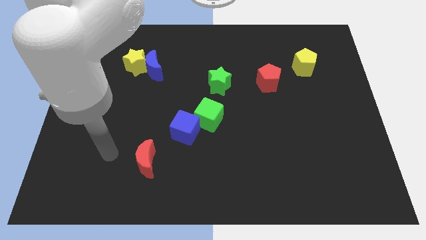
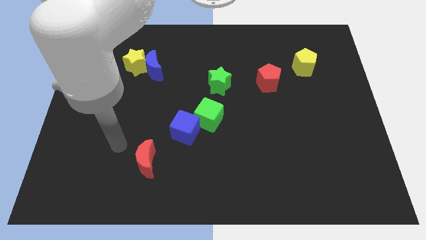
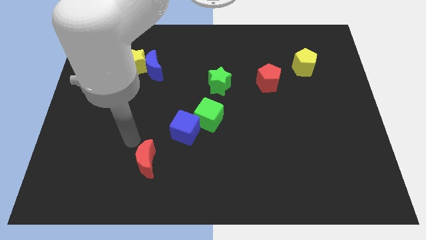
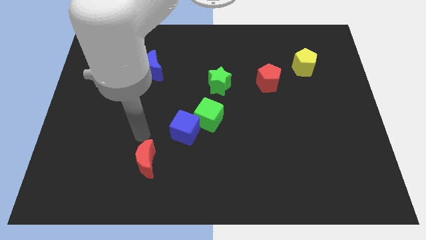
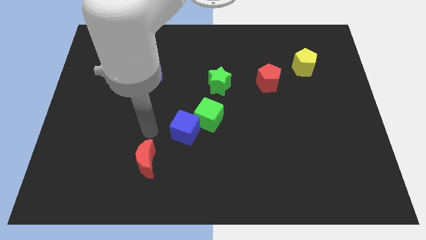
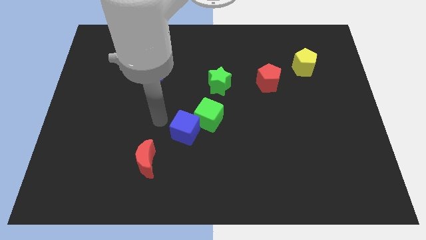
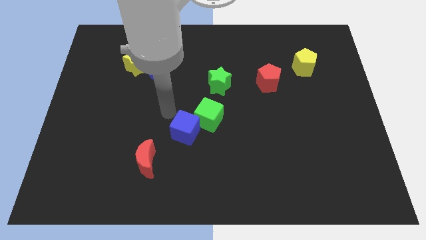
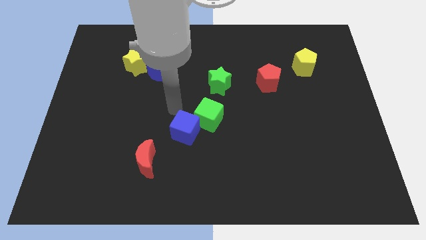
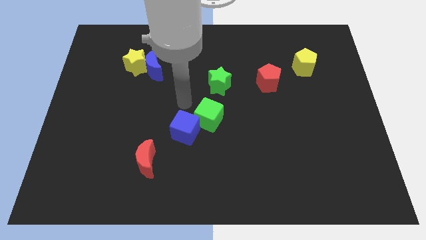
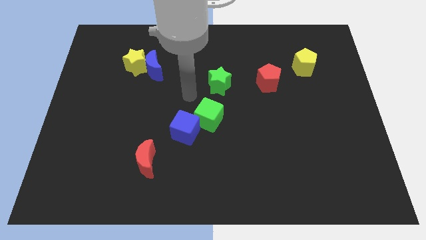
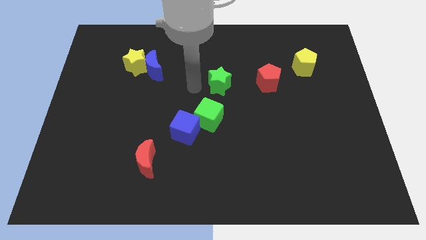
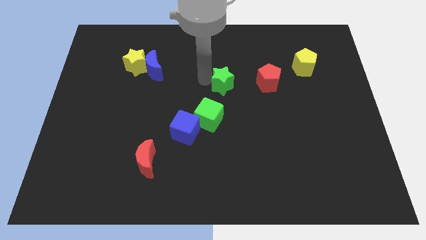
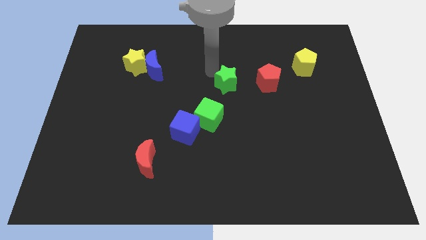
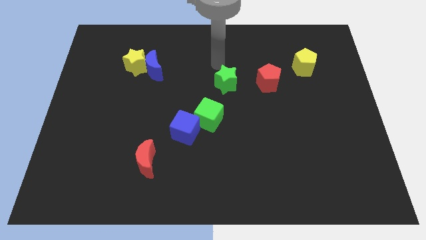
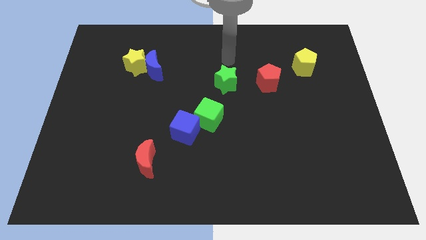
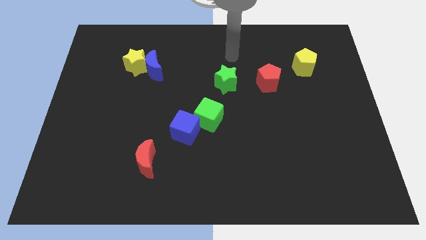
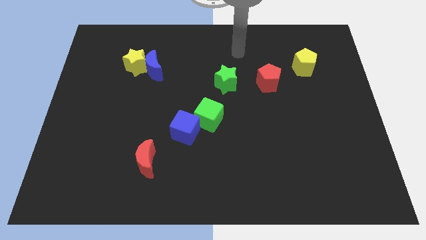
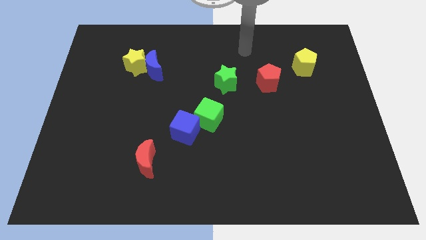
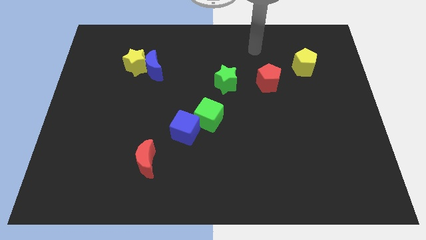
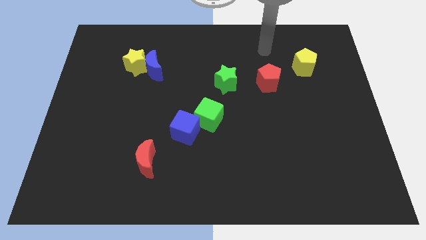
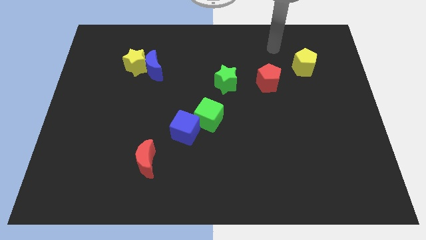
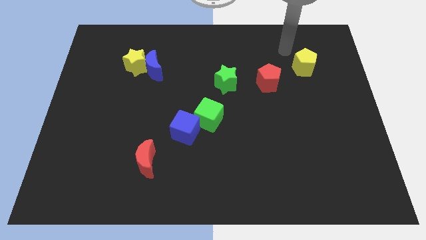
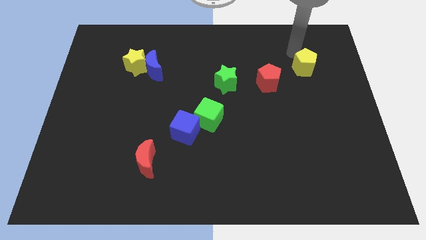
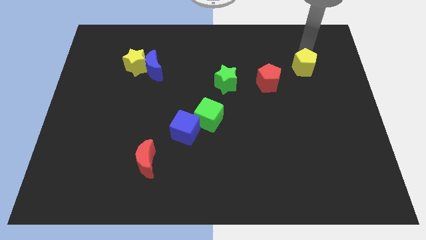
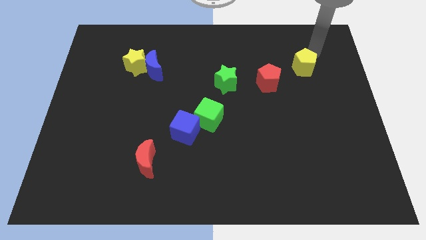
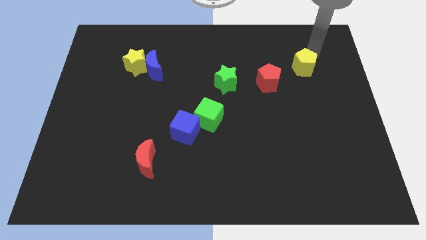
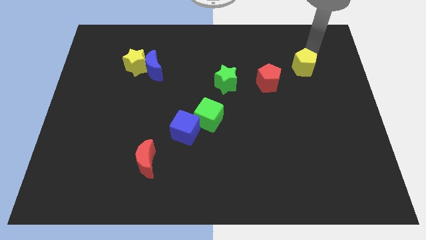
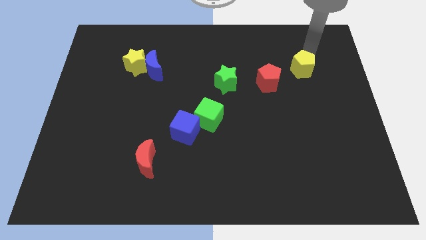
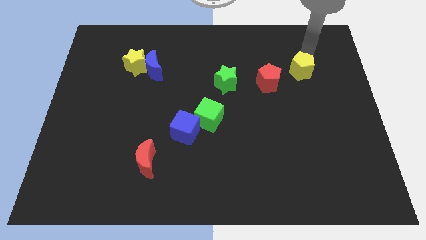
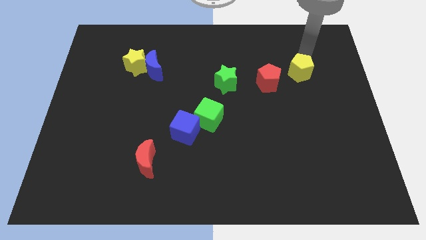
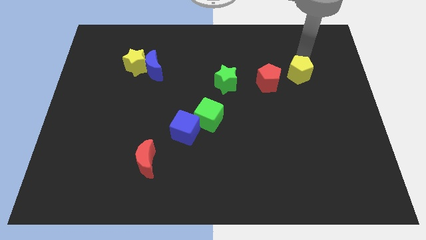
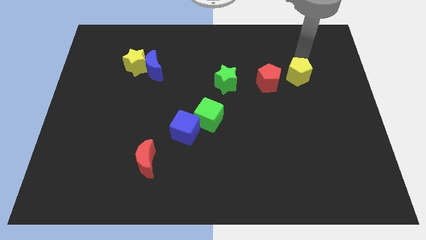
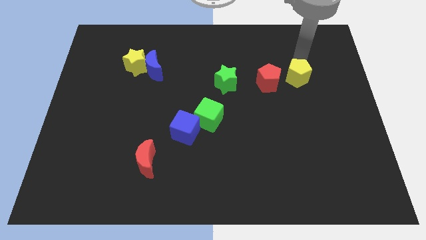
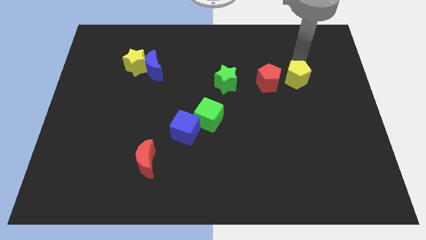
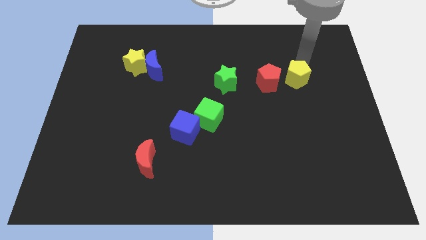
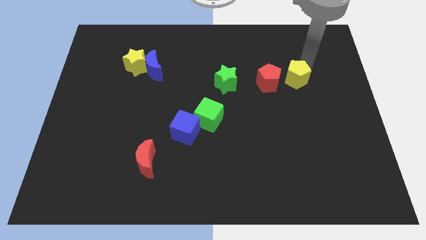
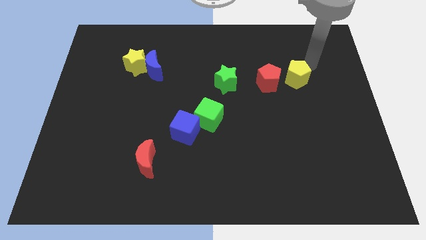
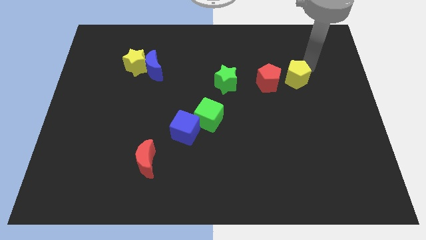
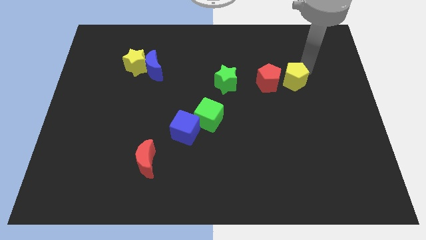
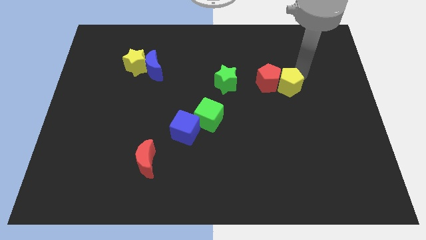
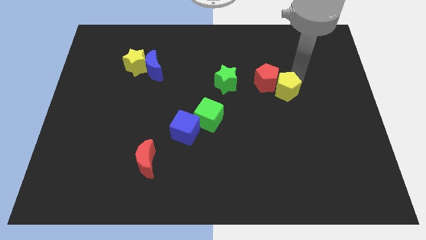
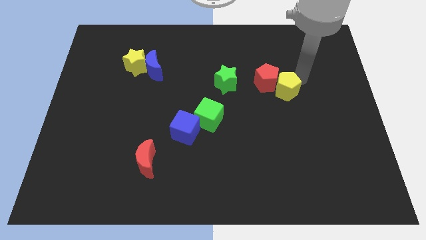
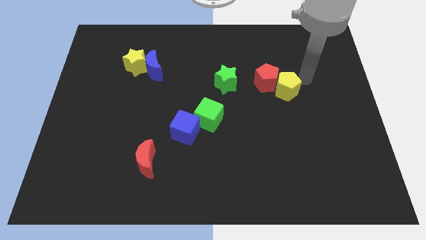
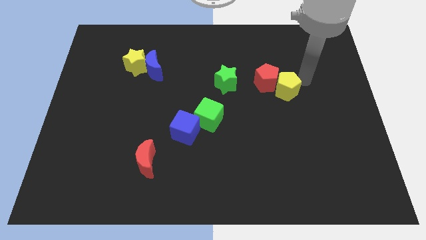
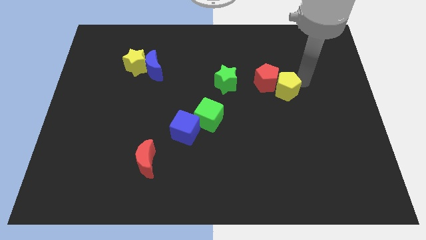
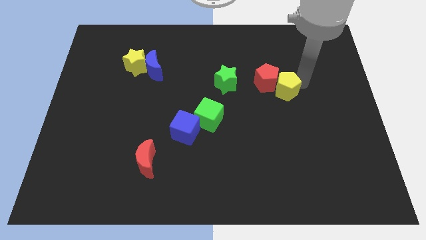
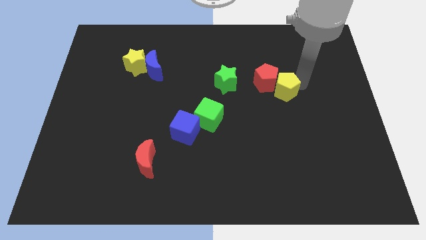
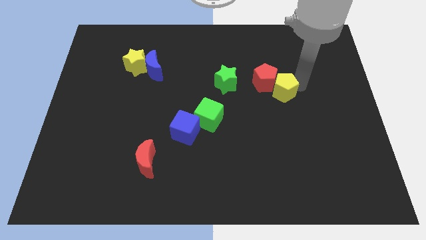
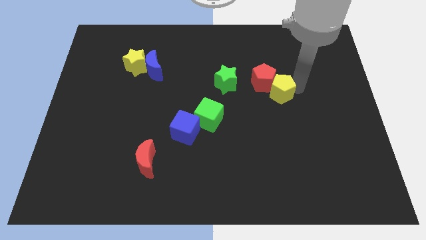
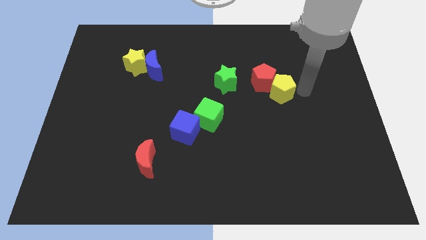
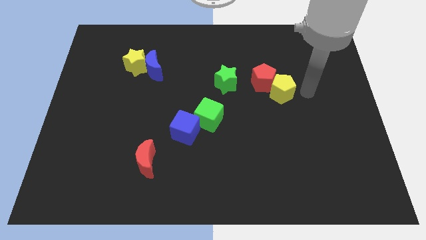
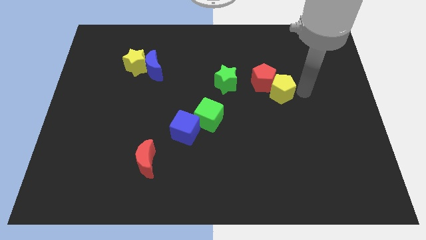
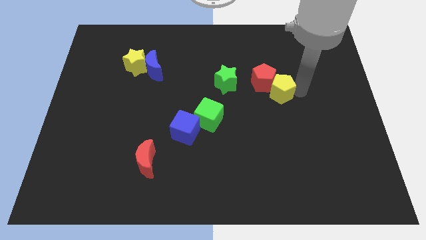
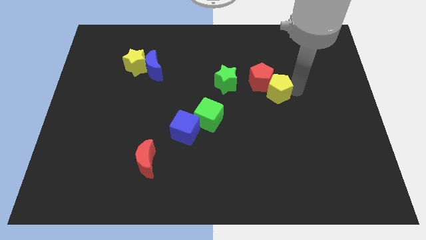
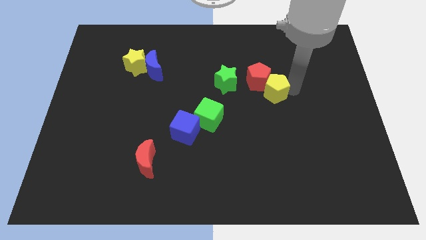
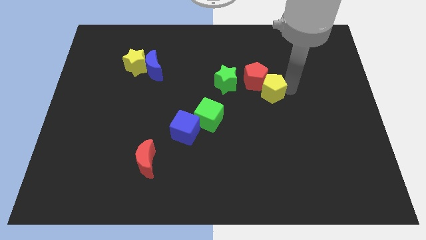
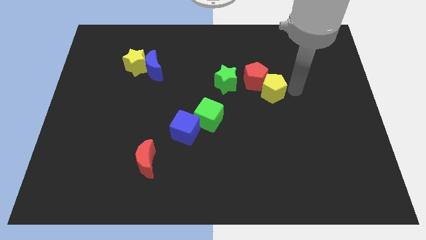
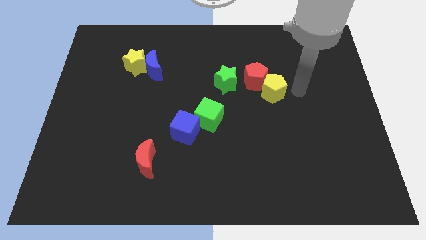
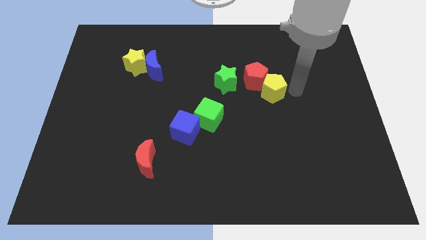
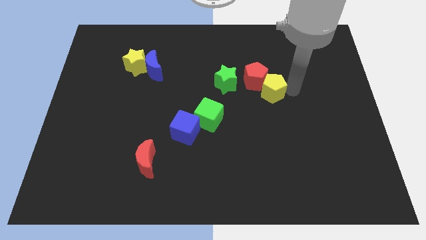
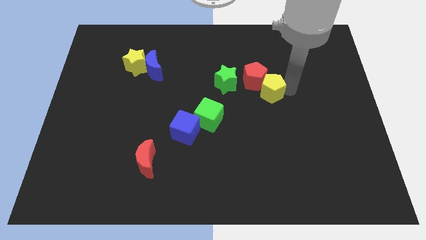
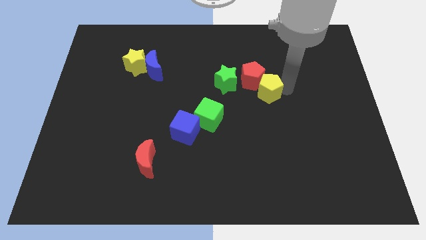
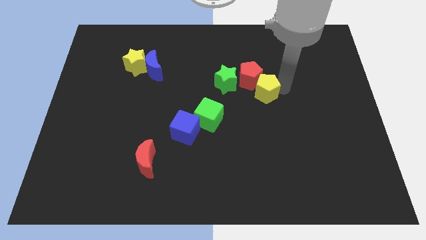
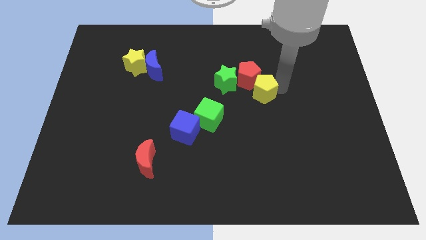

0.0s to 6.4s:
put the yellow pentagon to the center of the board
